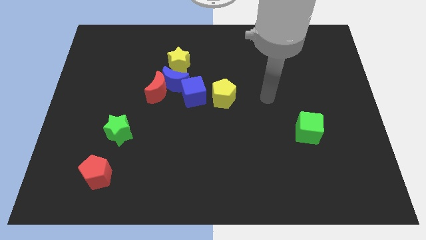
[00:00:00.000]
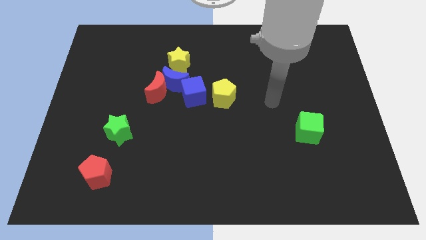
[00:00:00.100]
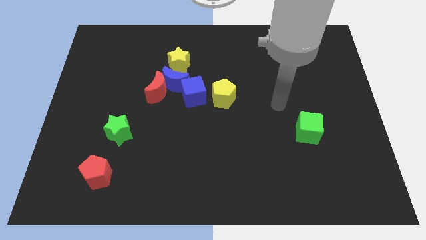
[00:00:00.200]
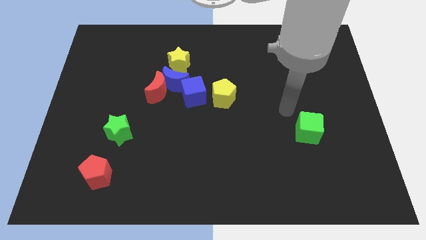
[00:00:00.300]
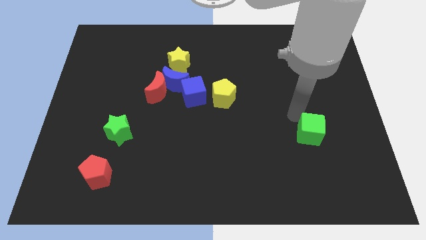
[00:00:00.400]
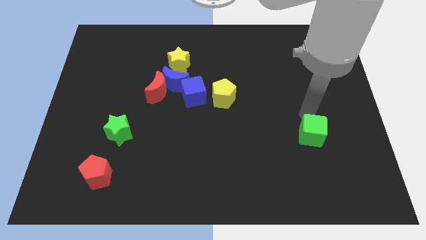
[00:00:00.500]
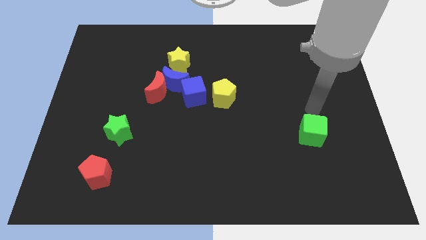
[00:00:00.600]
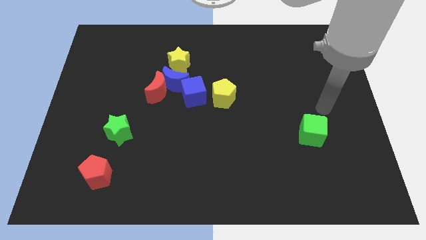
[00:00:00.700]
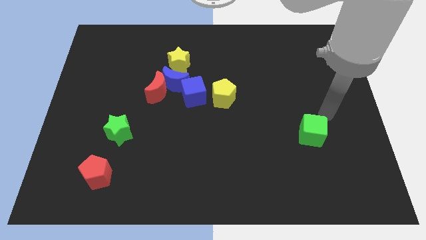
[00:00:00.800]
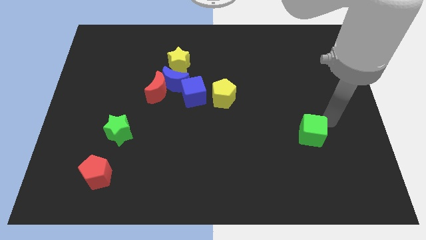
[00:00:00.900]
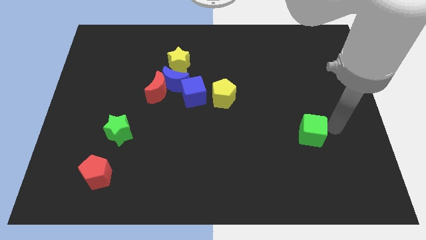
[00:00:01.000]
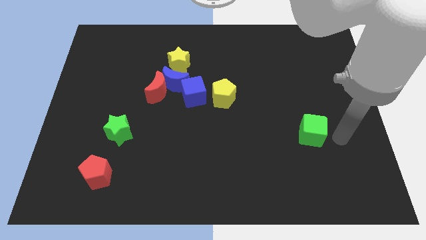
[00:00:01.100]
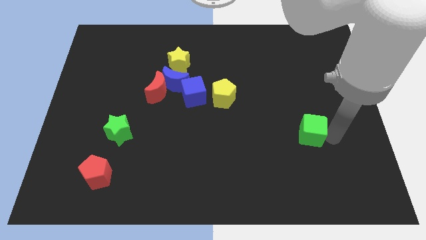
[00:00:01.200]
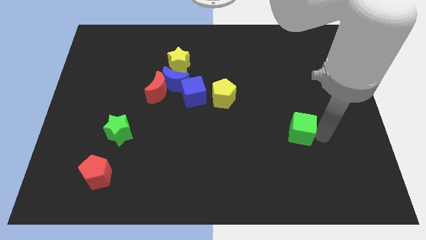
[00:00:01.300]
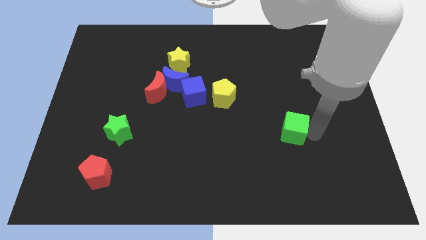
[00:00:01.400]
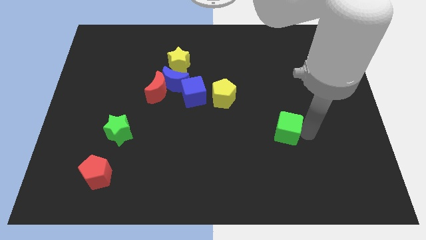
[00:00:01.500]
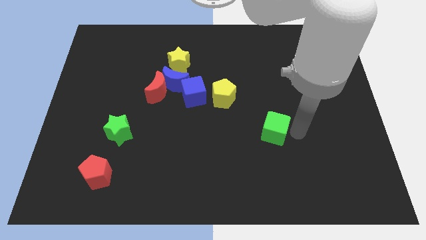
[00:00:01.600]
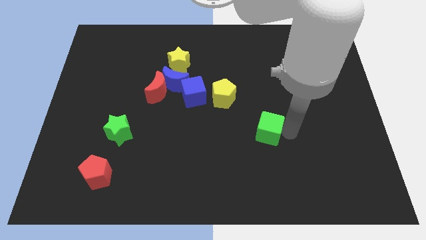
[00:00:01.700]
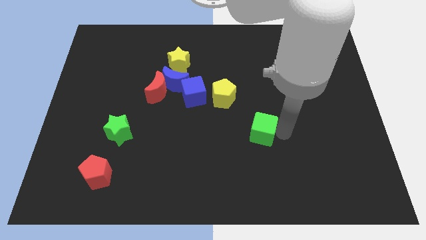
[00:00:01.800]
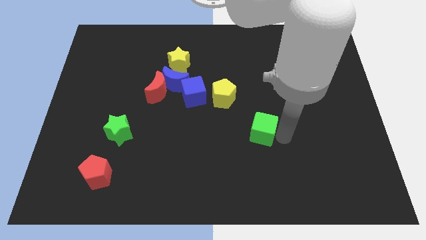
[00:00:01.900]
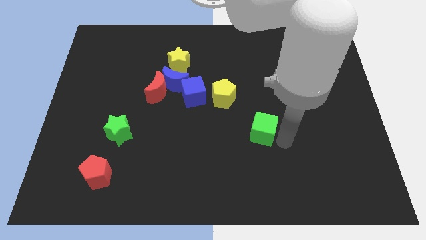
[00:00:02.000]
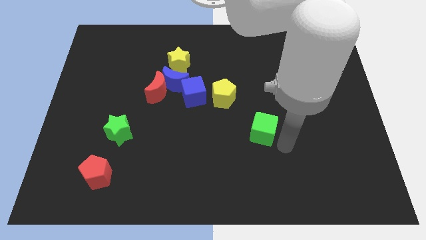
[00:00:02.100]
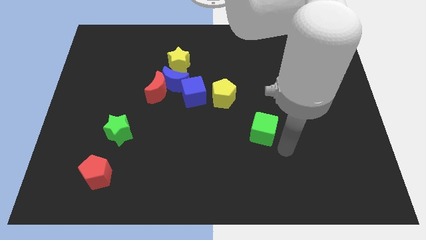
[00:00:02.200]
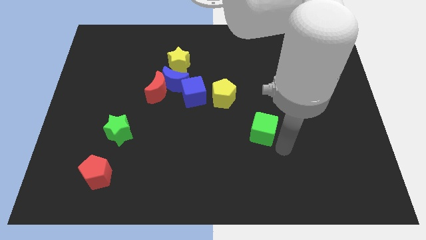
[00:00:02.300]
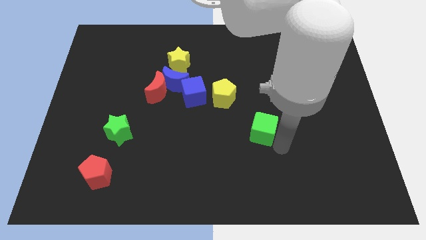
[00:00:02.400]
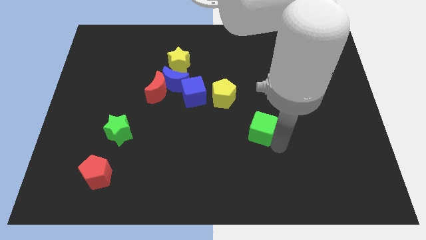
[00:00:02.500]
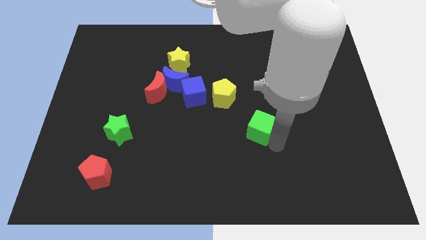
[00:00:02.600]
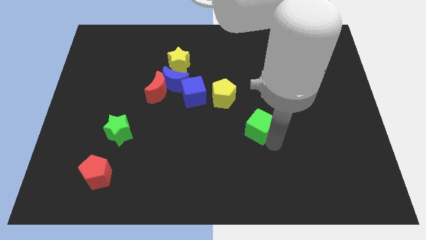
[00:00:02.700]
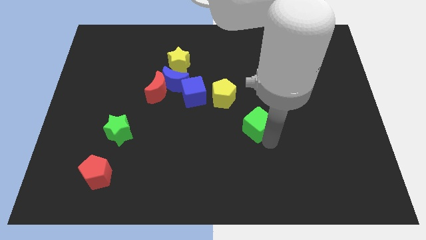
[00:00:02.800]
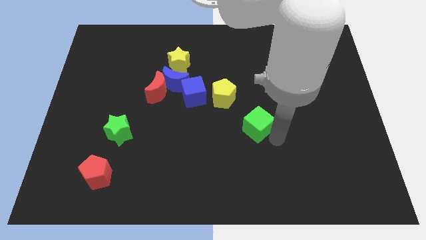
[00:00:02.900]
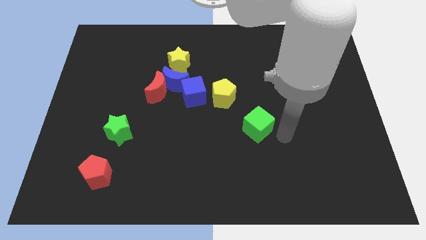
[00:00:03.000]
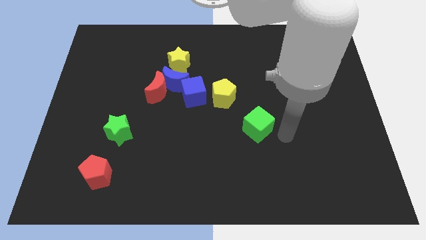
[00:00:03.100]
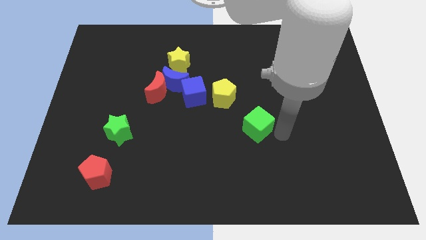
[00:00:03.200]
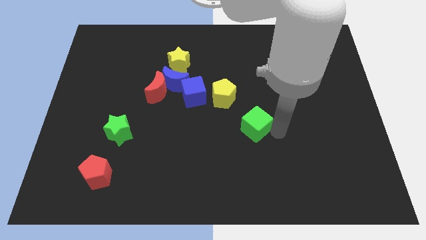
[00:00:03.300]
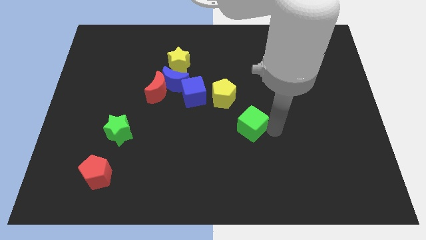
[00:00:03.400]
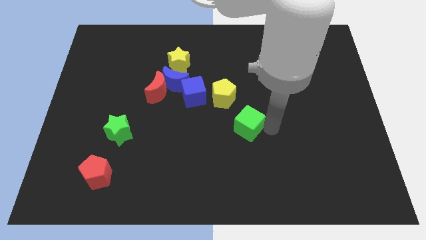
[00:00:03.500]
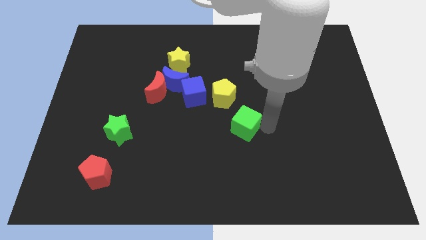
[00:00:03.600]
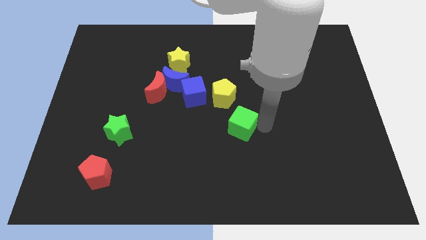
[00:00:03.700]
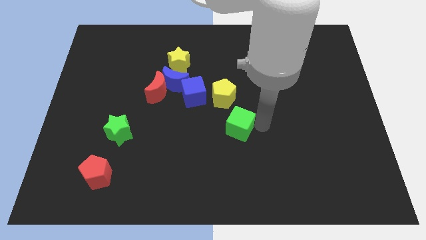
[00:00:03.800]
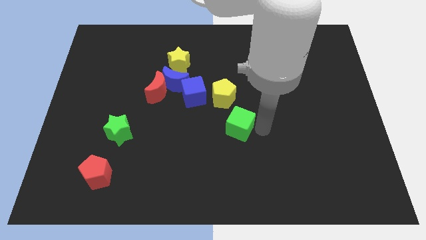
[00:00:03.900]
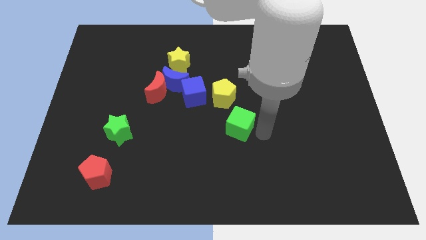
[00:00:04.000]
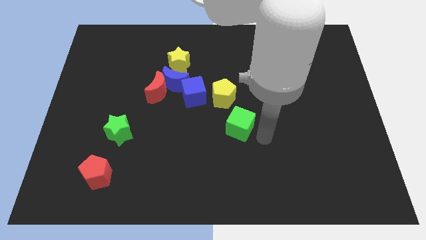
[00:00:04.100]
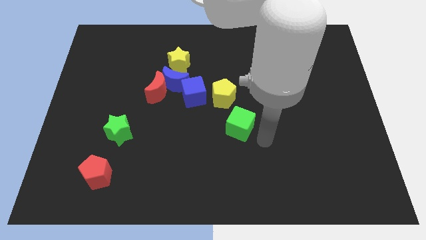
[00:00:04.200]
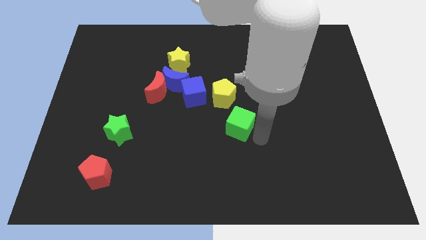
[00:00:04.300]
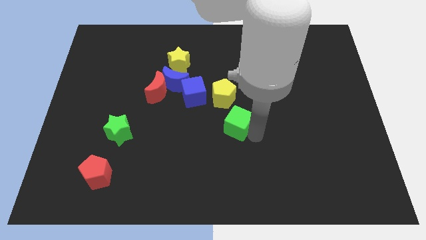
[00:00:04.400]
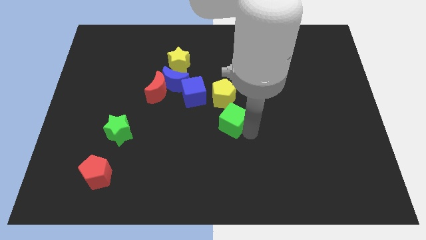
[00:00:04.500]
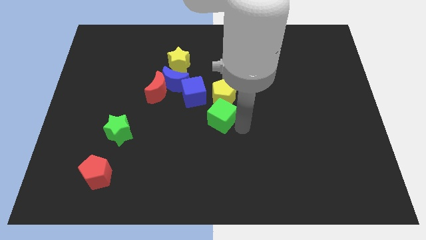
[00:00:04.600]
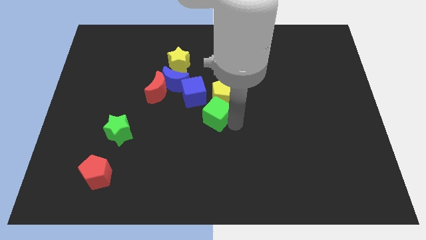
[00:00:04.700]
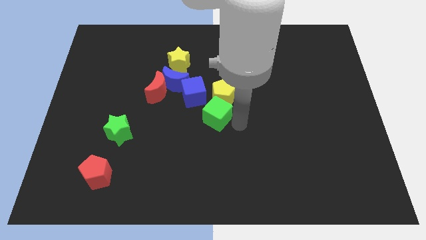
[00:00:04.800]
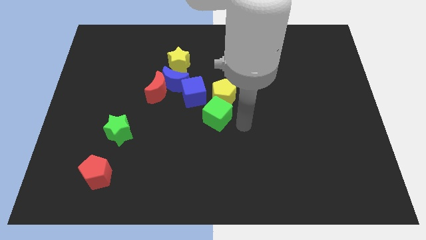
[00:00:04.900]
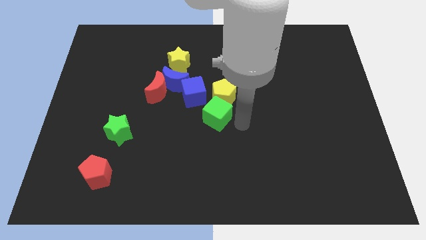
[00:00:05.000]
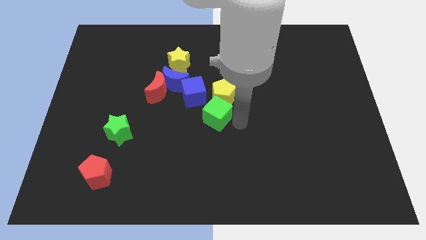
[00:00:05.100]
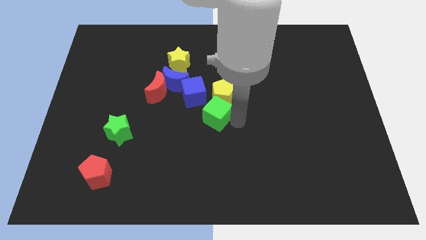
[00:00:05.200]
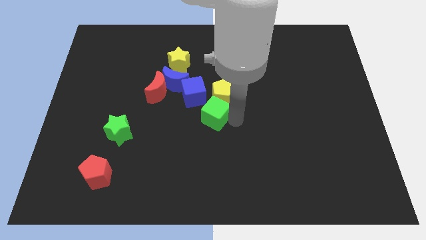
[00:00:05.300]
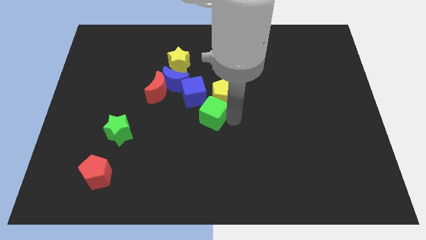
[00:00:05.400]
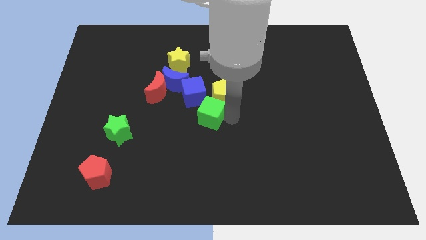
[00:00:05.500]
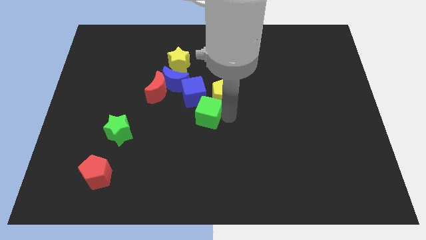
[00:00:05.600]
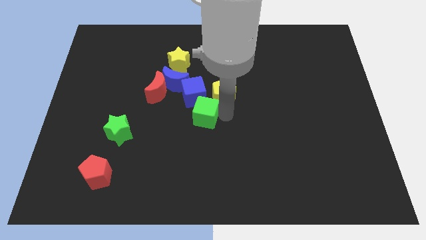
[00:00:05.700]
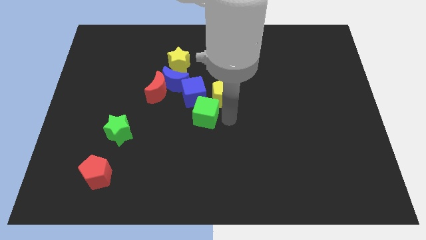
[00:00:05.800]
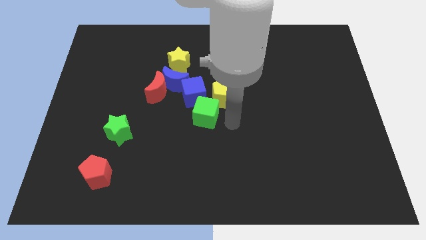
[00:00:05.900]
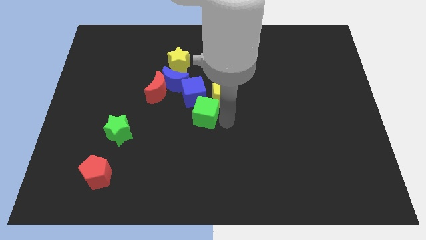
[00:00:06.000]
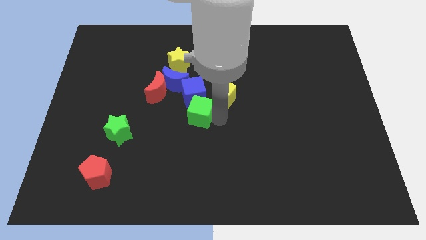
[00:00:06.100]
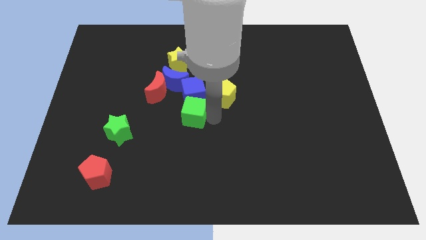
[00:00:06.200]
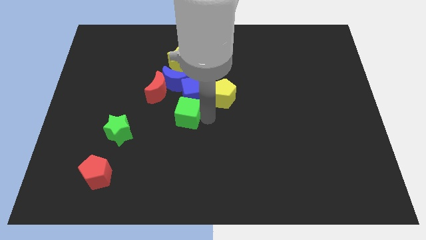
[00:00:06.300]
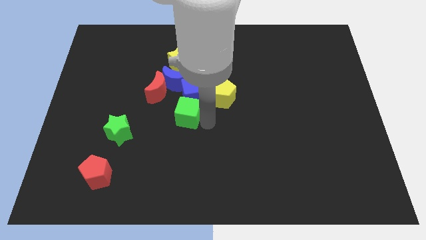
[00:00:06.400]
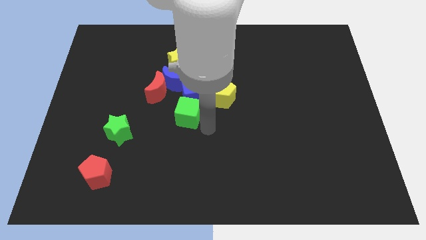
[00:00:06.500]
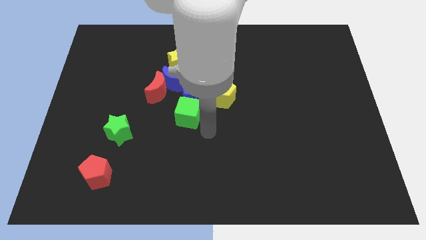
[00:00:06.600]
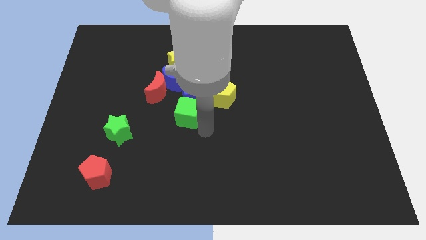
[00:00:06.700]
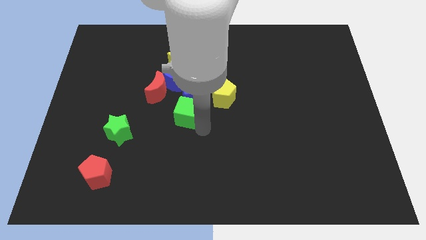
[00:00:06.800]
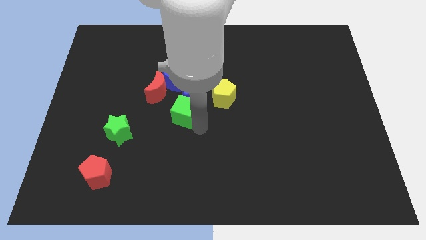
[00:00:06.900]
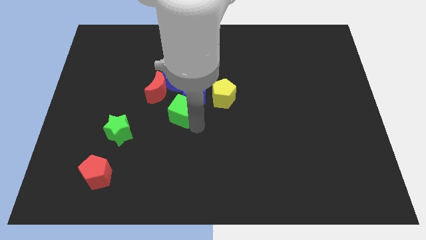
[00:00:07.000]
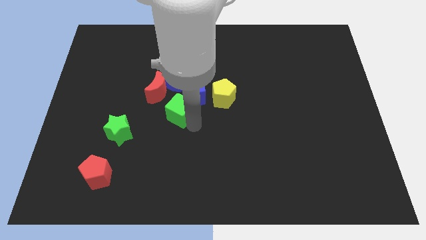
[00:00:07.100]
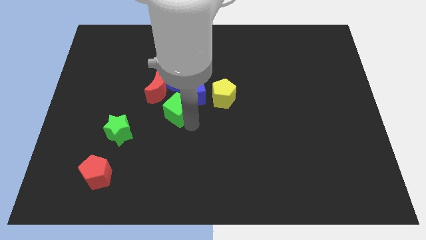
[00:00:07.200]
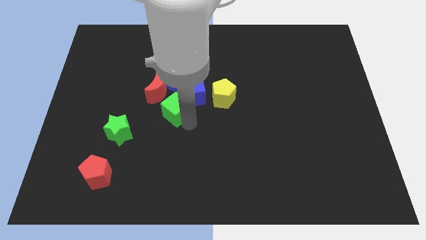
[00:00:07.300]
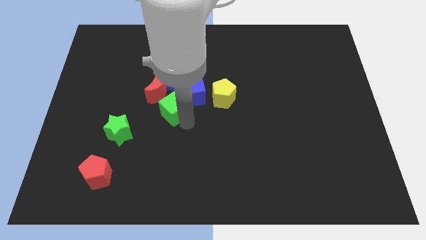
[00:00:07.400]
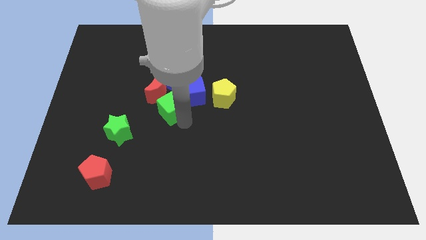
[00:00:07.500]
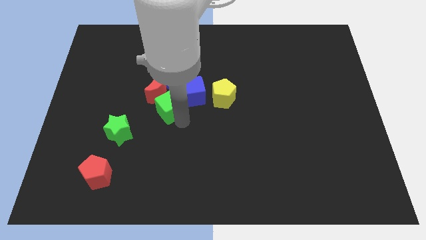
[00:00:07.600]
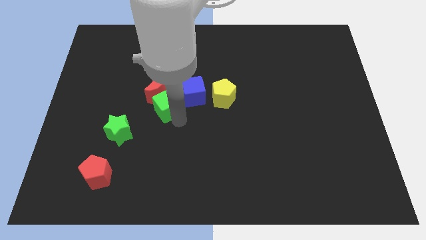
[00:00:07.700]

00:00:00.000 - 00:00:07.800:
move the green cube towards the red moon
